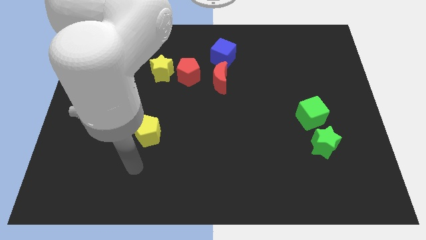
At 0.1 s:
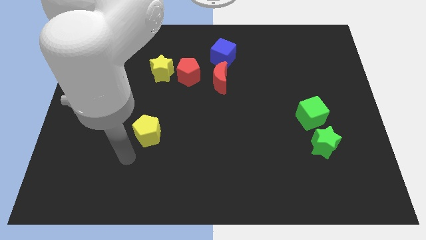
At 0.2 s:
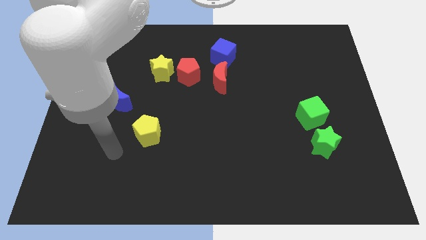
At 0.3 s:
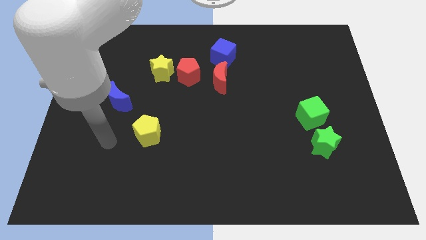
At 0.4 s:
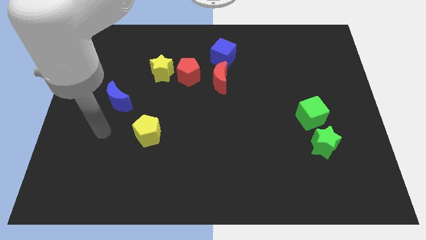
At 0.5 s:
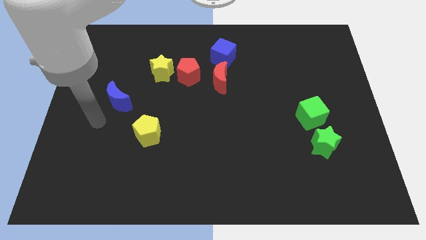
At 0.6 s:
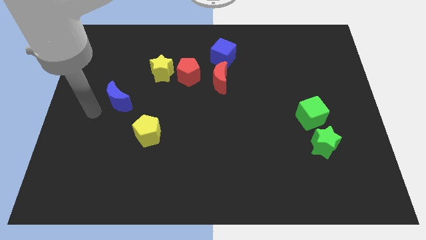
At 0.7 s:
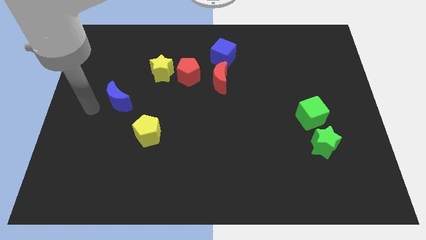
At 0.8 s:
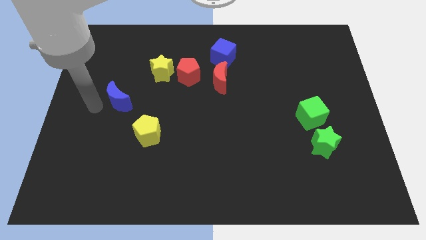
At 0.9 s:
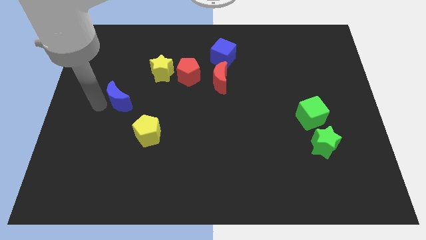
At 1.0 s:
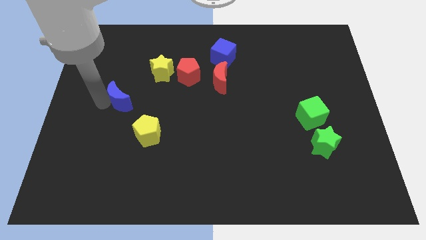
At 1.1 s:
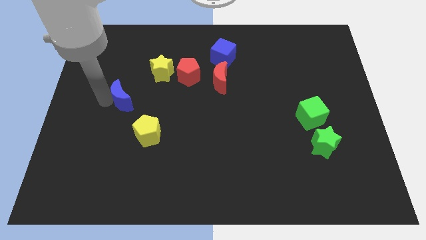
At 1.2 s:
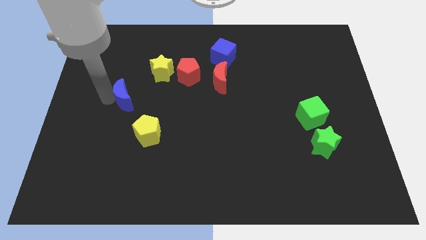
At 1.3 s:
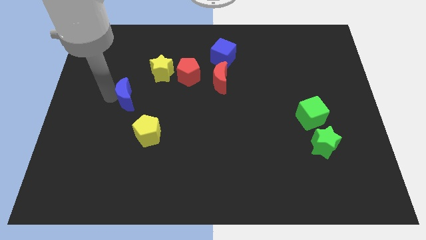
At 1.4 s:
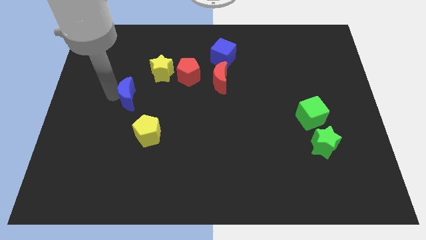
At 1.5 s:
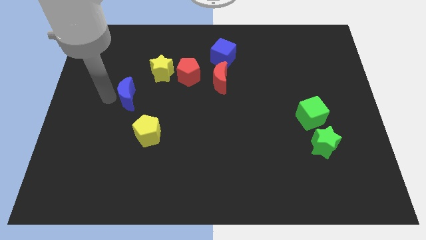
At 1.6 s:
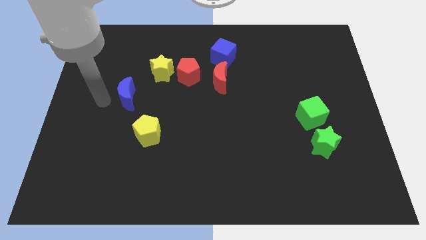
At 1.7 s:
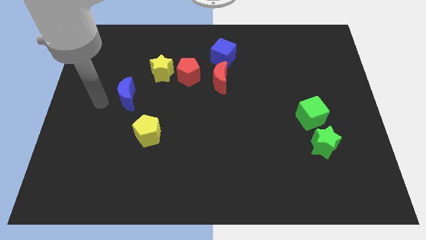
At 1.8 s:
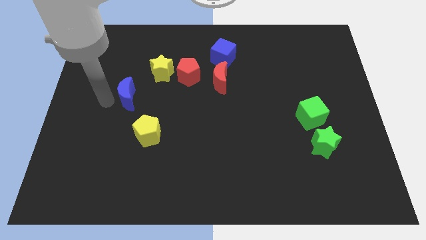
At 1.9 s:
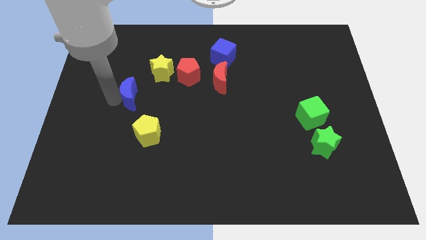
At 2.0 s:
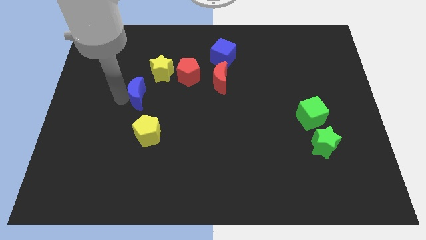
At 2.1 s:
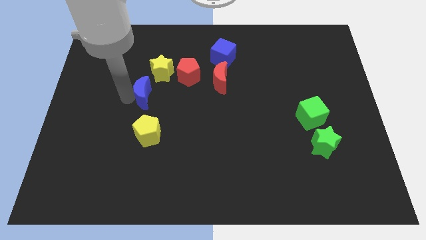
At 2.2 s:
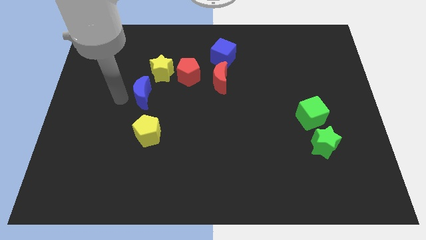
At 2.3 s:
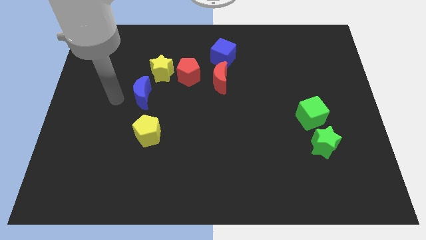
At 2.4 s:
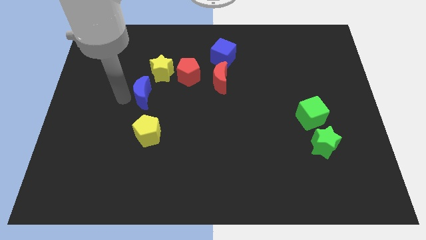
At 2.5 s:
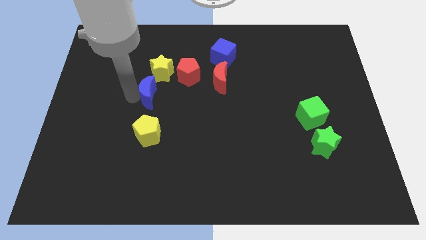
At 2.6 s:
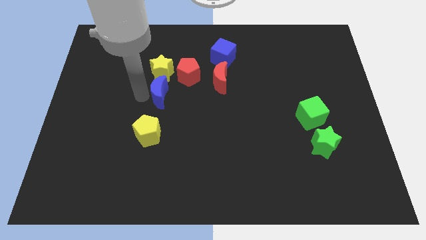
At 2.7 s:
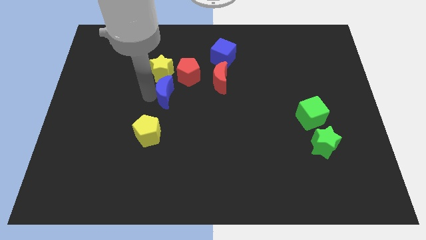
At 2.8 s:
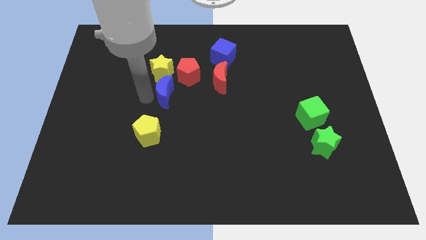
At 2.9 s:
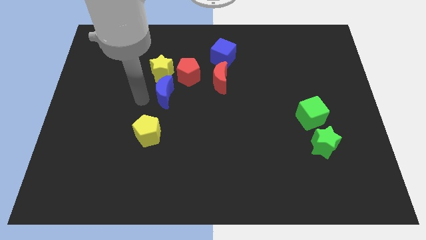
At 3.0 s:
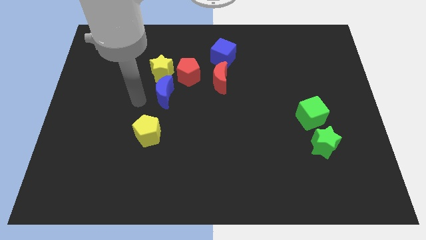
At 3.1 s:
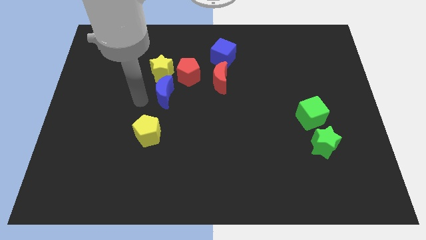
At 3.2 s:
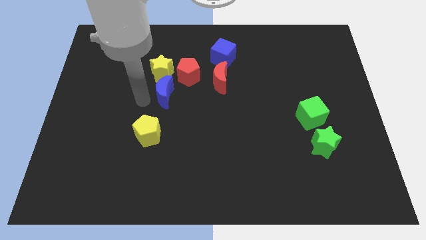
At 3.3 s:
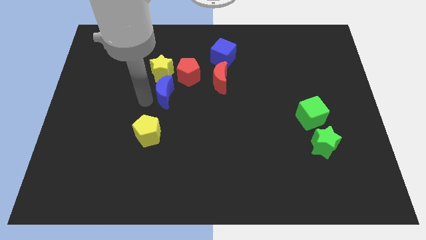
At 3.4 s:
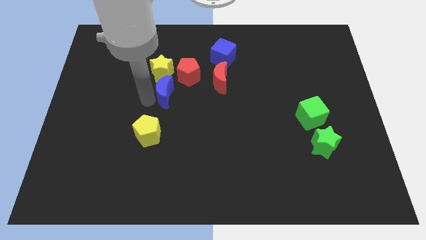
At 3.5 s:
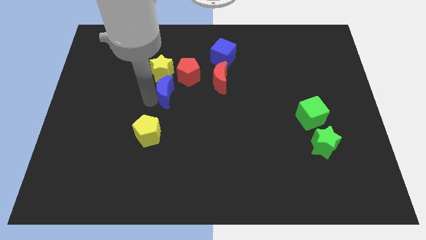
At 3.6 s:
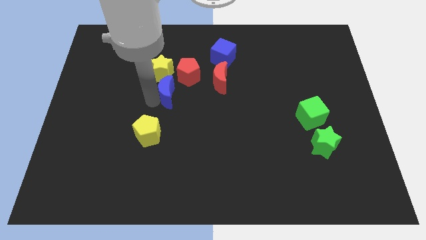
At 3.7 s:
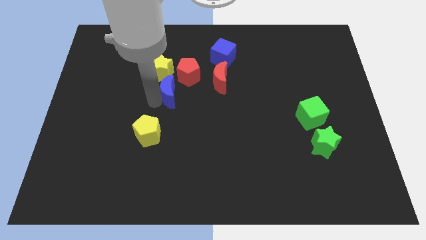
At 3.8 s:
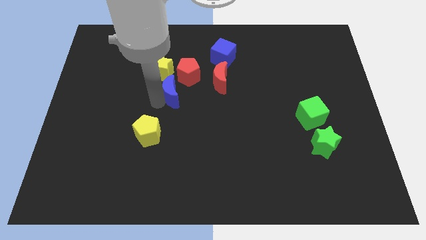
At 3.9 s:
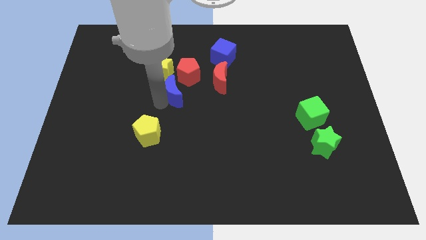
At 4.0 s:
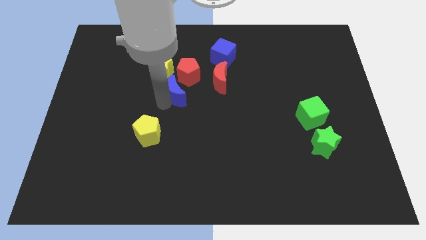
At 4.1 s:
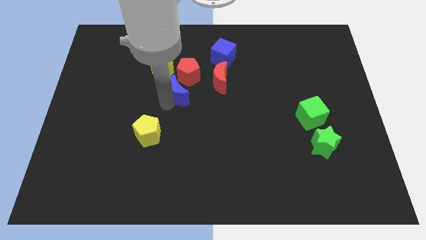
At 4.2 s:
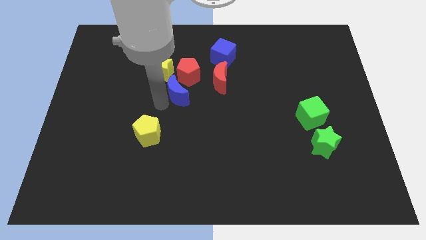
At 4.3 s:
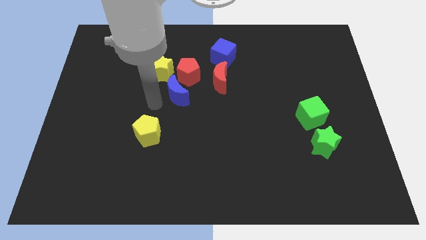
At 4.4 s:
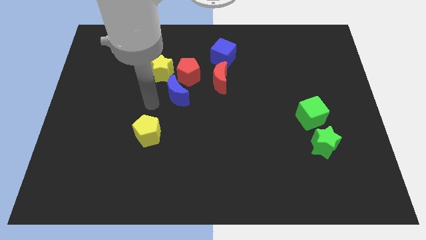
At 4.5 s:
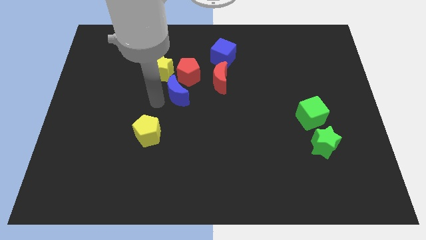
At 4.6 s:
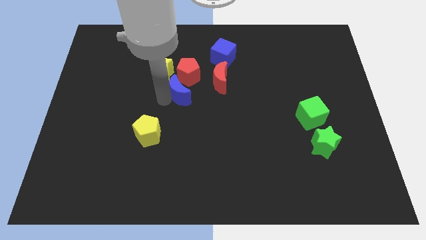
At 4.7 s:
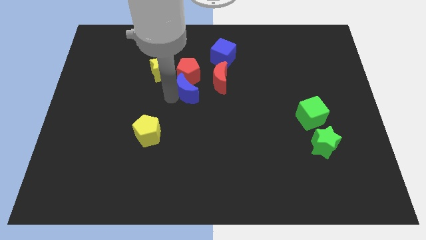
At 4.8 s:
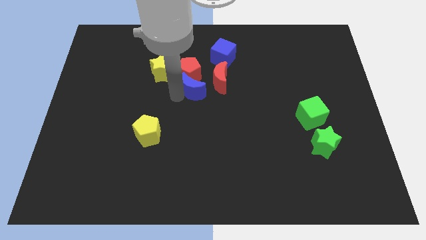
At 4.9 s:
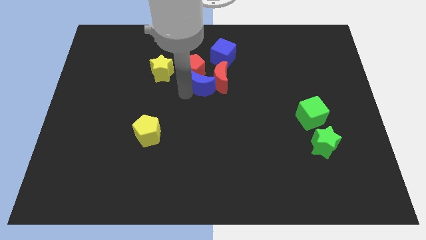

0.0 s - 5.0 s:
push the blue moon to the red moon

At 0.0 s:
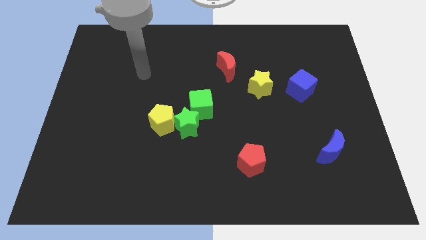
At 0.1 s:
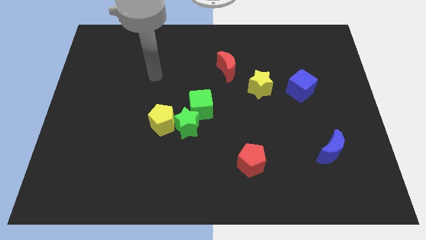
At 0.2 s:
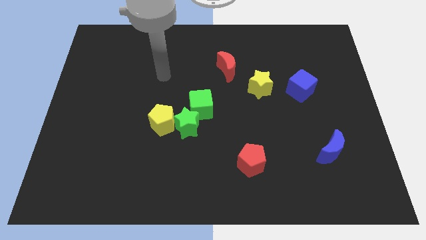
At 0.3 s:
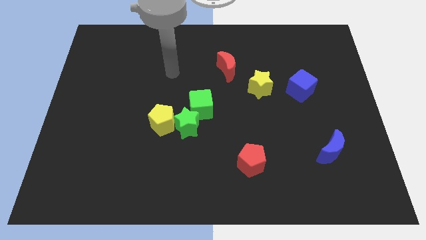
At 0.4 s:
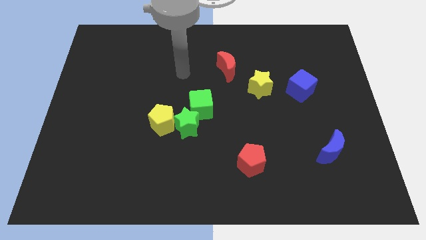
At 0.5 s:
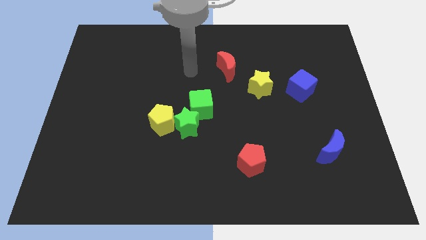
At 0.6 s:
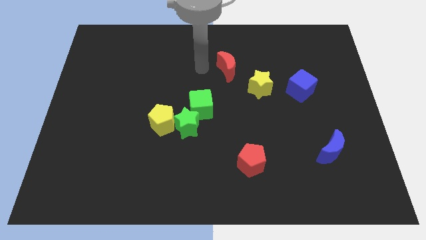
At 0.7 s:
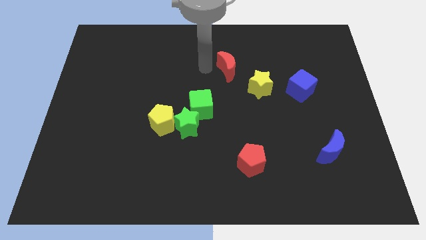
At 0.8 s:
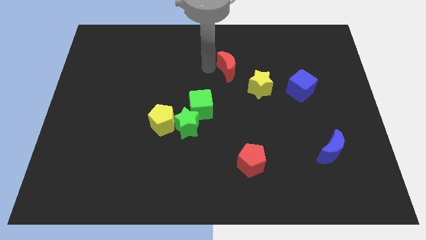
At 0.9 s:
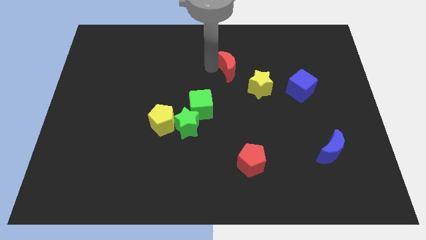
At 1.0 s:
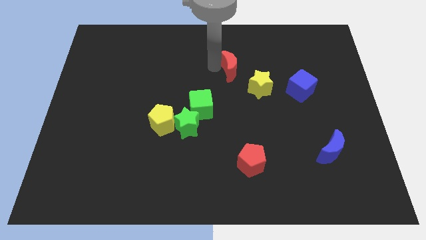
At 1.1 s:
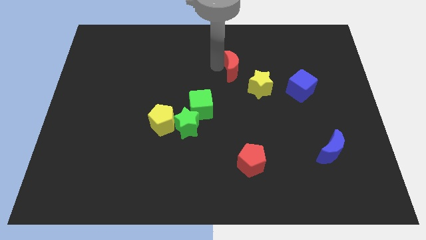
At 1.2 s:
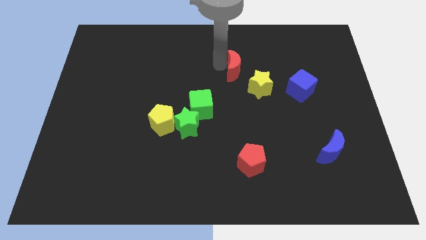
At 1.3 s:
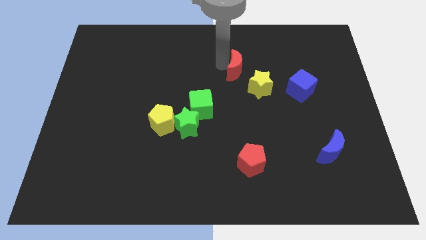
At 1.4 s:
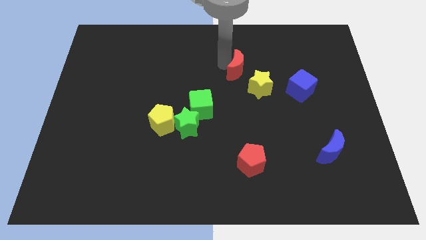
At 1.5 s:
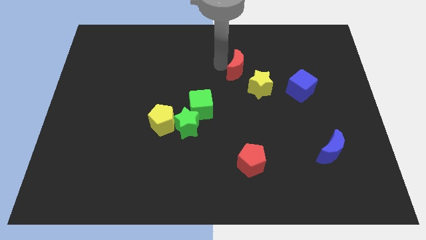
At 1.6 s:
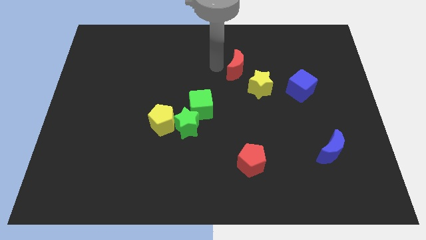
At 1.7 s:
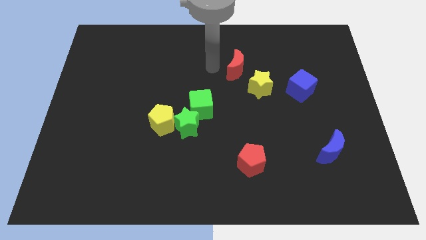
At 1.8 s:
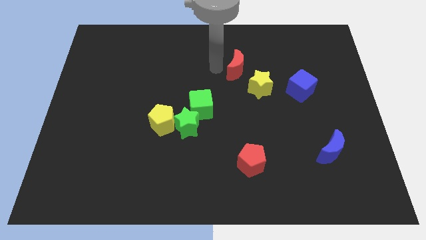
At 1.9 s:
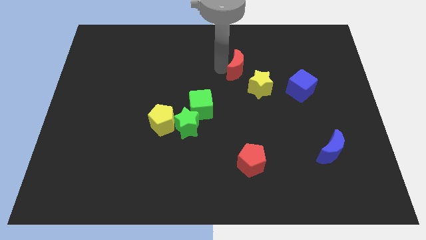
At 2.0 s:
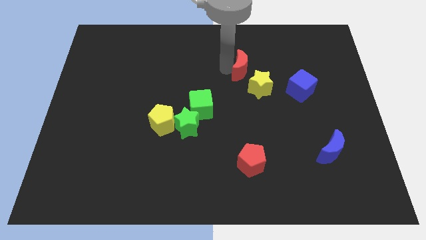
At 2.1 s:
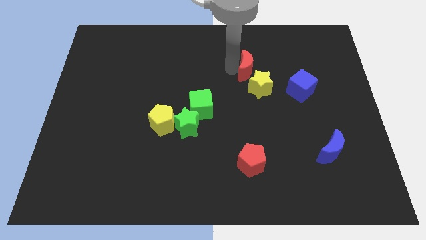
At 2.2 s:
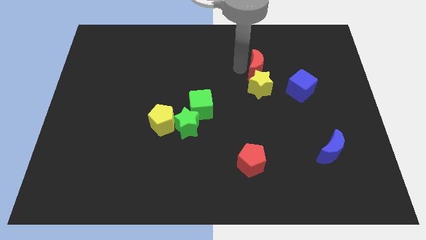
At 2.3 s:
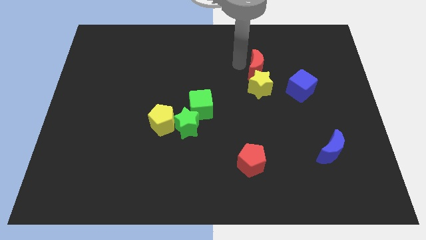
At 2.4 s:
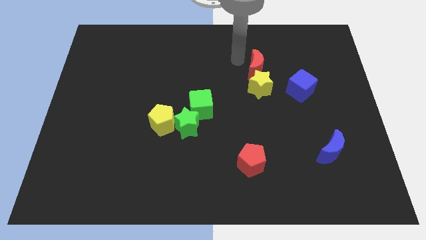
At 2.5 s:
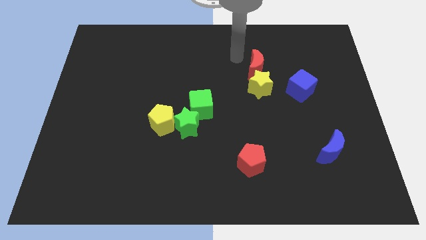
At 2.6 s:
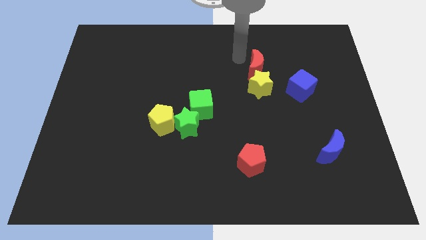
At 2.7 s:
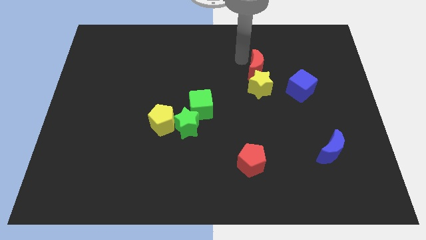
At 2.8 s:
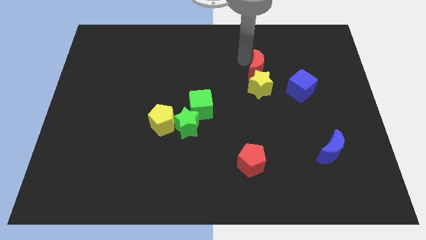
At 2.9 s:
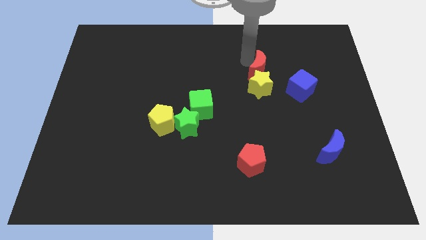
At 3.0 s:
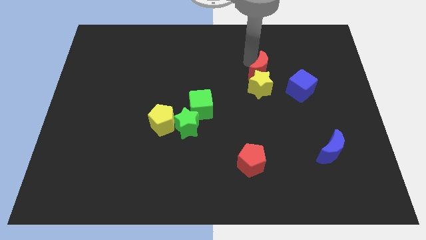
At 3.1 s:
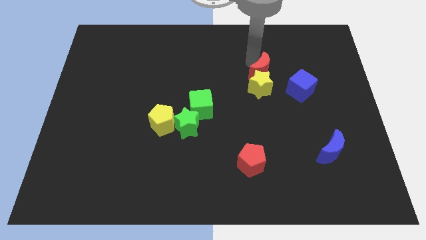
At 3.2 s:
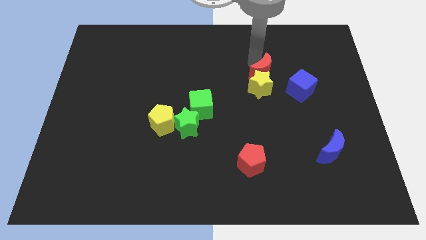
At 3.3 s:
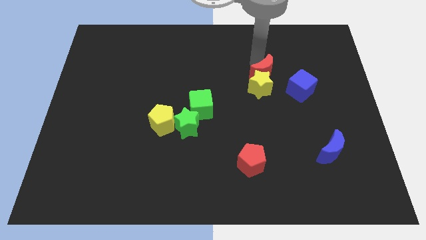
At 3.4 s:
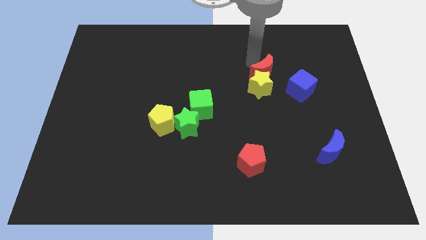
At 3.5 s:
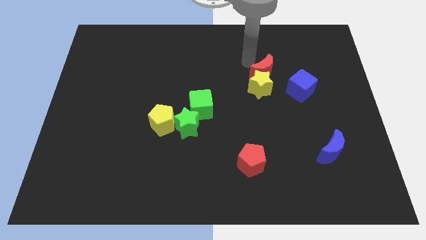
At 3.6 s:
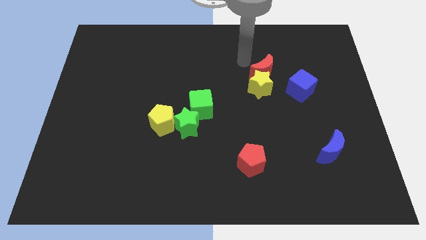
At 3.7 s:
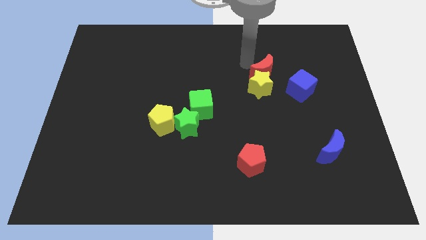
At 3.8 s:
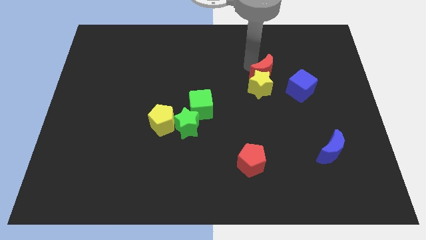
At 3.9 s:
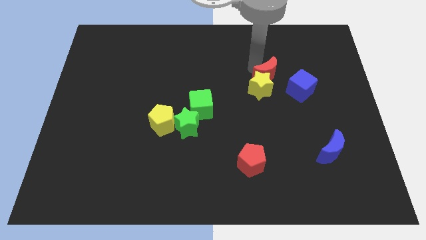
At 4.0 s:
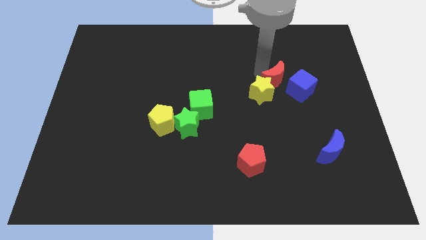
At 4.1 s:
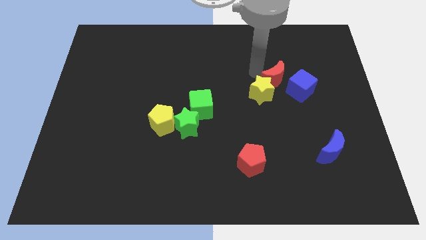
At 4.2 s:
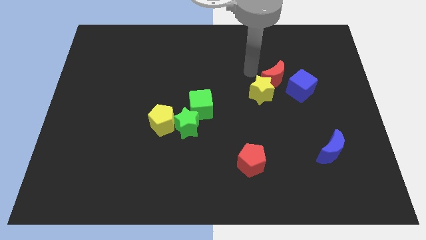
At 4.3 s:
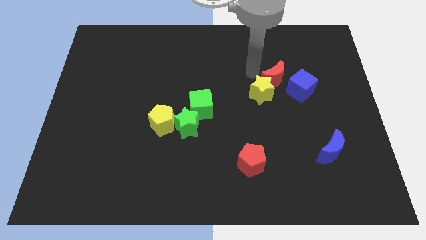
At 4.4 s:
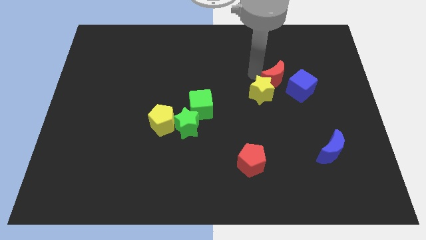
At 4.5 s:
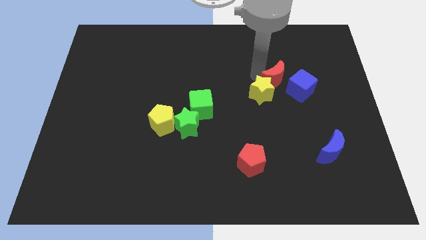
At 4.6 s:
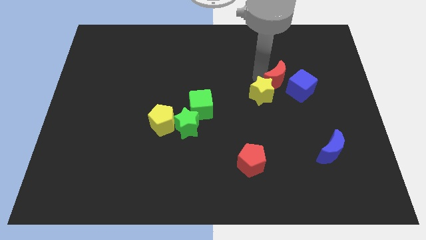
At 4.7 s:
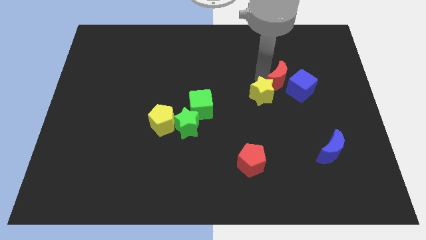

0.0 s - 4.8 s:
move the red moon towards the blue cube
